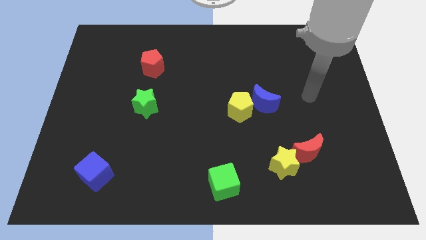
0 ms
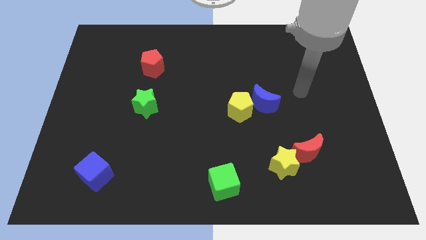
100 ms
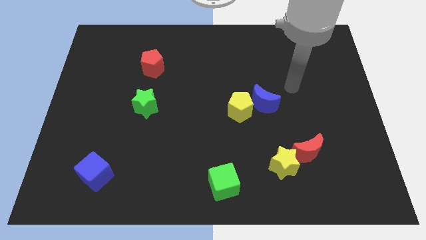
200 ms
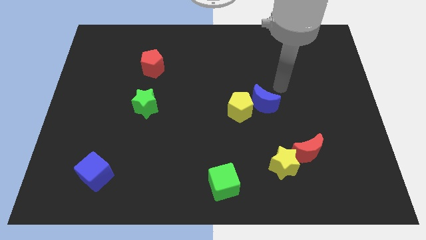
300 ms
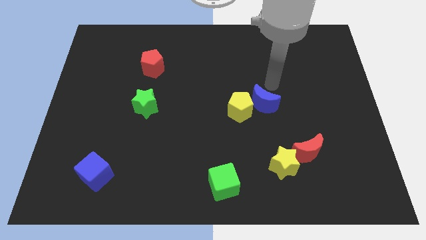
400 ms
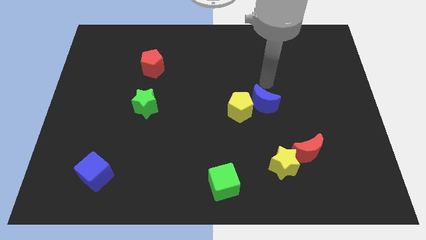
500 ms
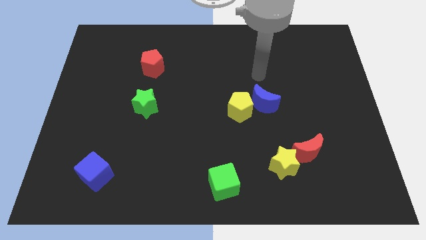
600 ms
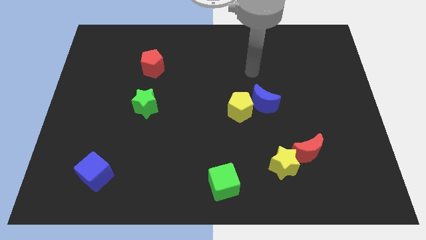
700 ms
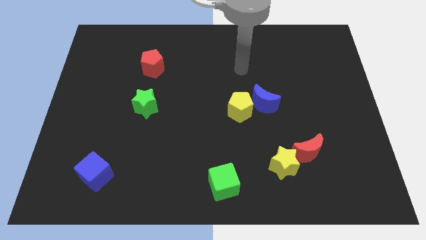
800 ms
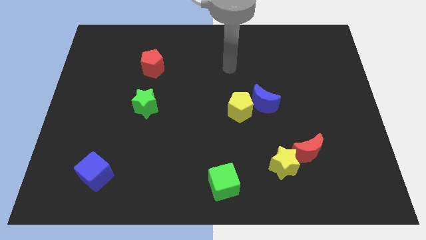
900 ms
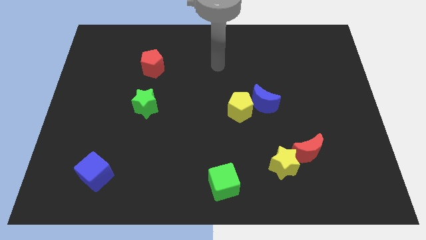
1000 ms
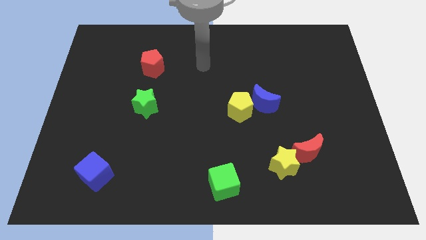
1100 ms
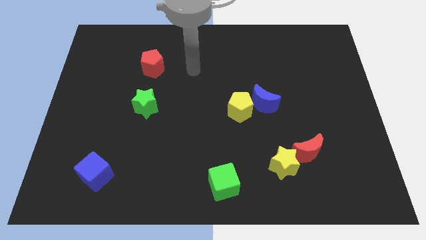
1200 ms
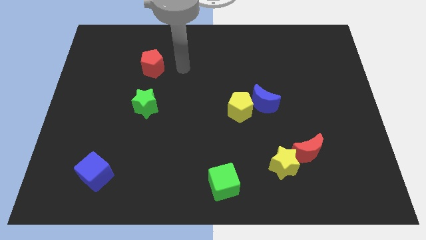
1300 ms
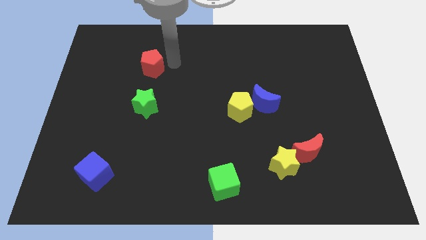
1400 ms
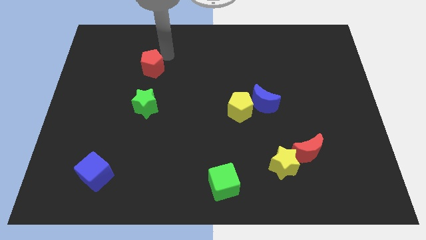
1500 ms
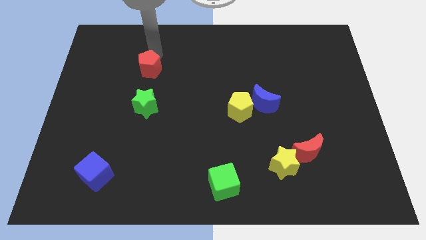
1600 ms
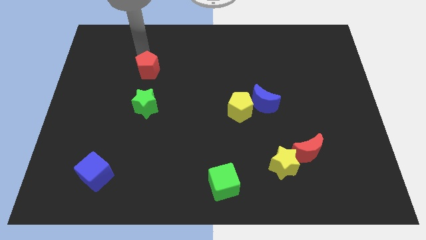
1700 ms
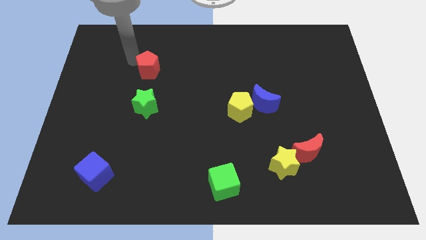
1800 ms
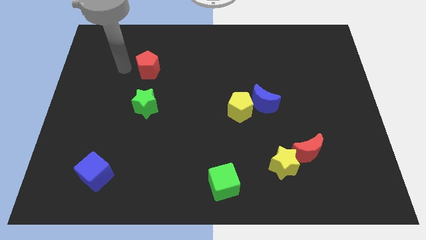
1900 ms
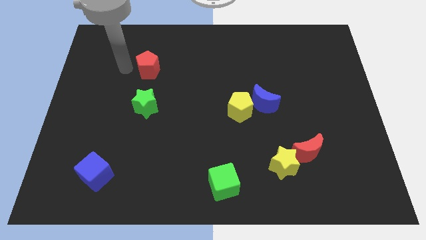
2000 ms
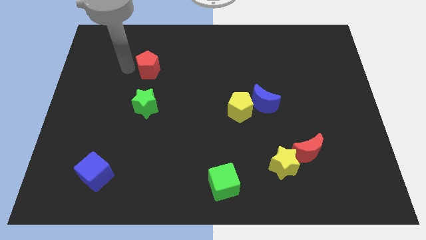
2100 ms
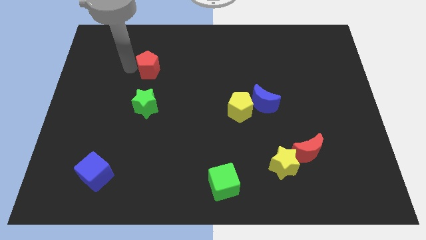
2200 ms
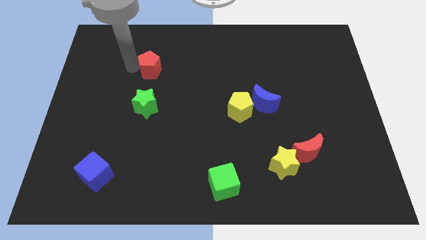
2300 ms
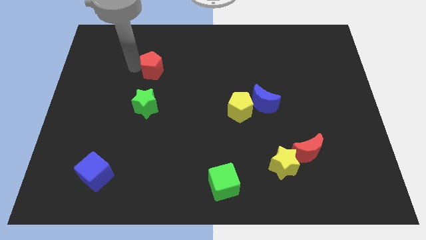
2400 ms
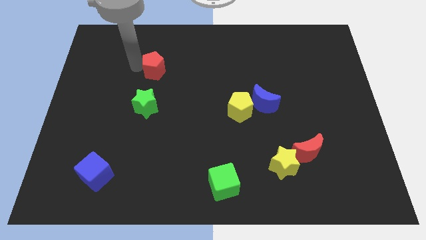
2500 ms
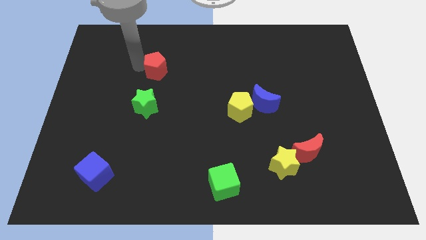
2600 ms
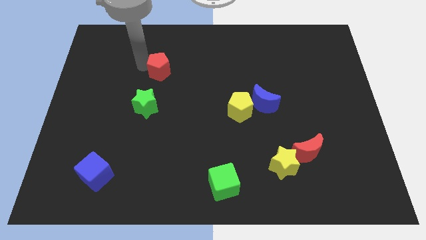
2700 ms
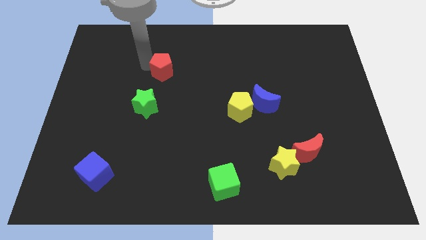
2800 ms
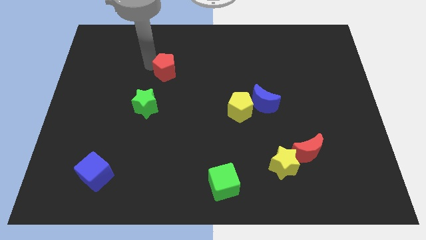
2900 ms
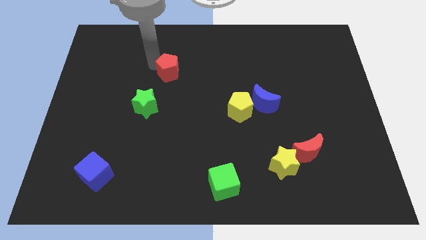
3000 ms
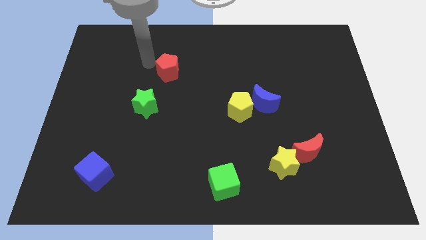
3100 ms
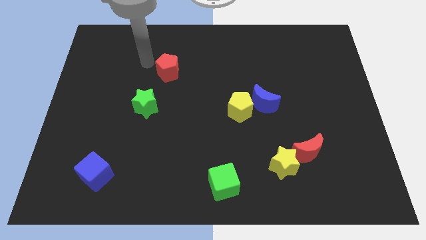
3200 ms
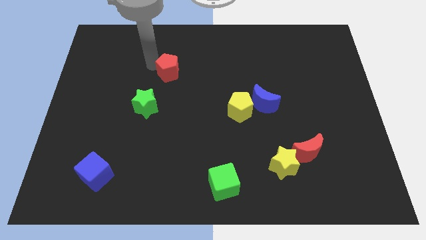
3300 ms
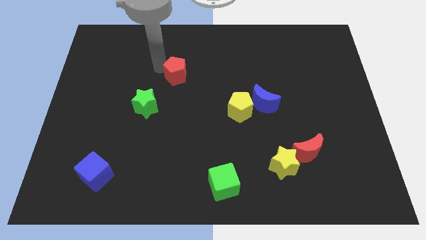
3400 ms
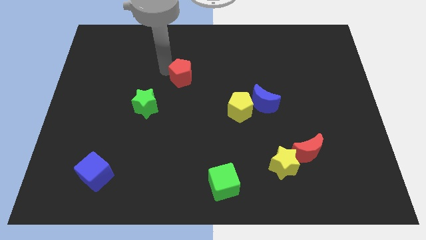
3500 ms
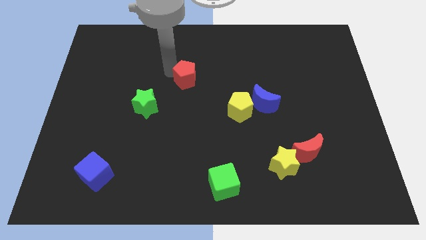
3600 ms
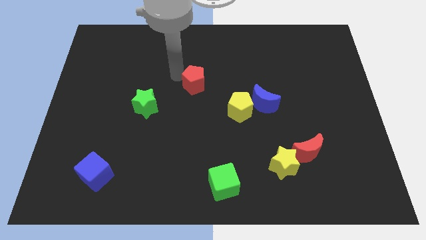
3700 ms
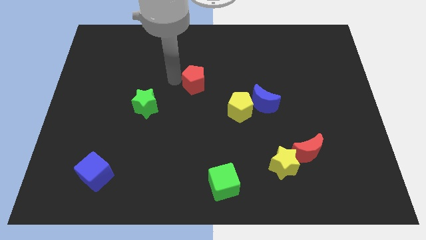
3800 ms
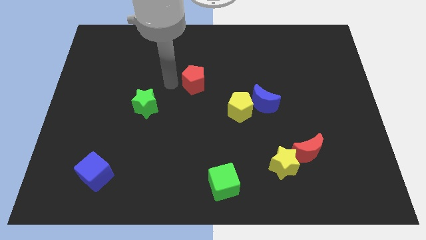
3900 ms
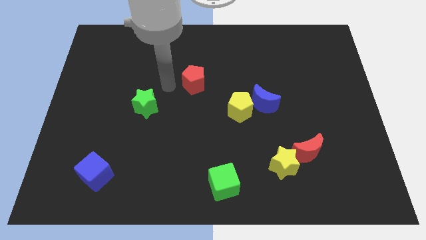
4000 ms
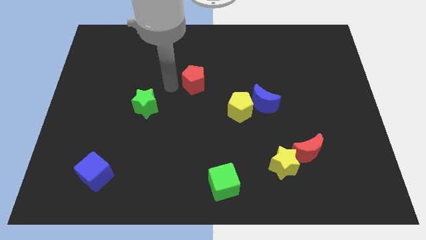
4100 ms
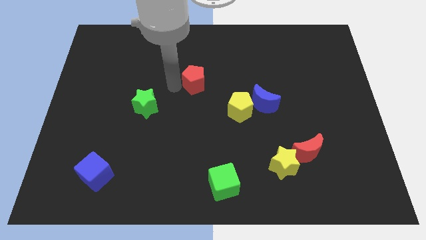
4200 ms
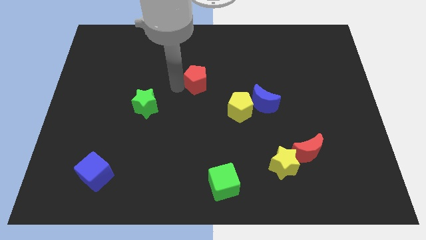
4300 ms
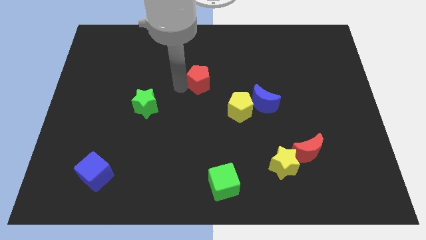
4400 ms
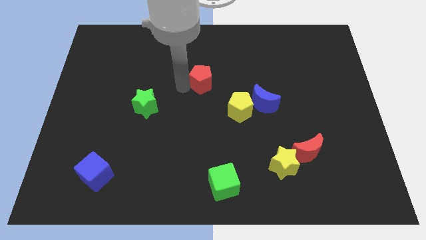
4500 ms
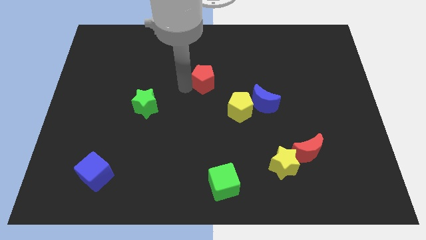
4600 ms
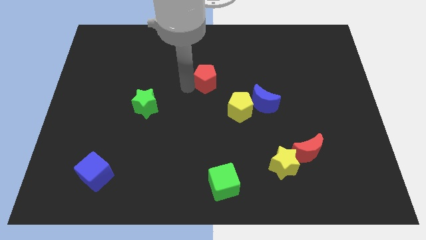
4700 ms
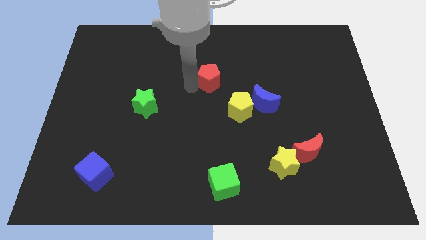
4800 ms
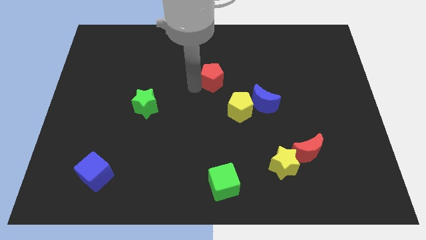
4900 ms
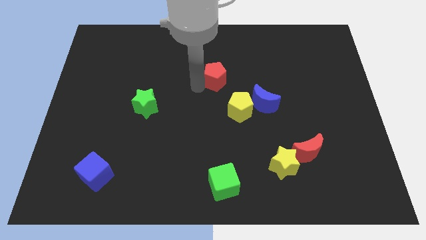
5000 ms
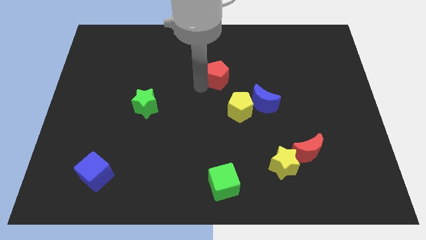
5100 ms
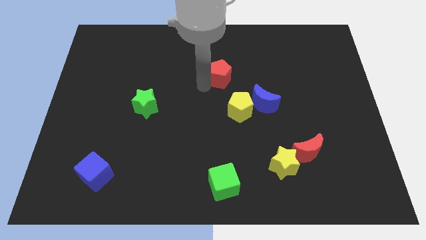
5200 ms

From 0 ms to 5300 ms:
move the red pentagon to the top side of the yellow pentagon
